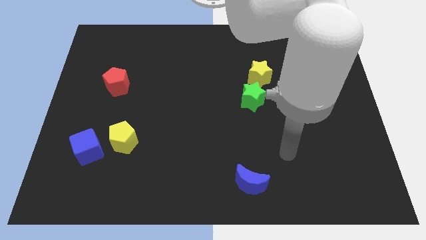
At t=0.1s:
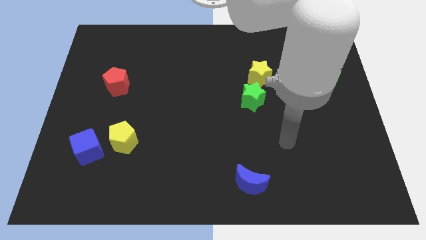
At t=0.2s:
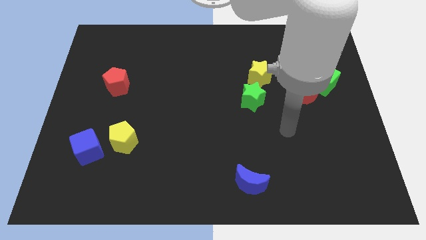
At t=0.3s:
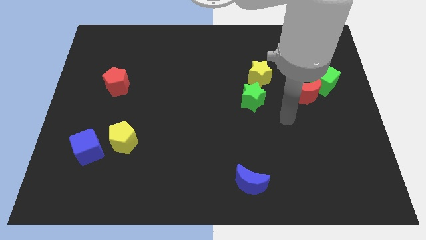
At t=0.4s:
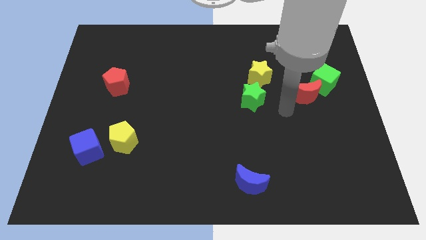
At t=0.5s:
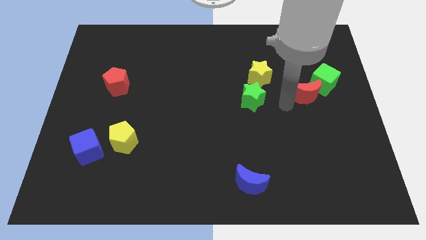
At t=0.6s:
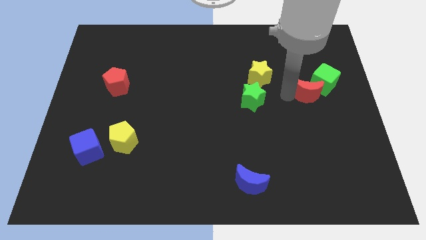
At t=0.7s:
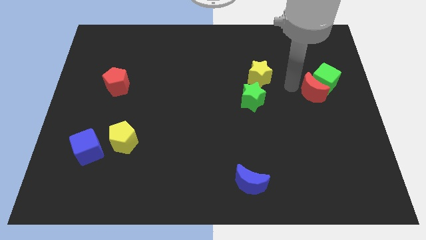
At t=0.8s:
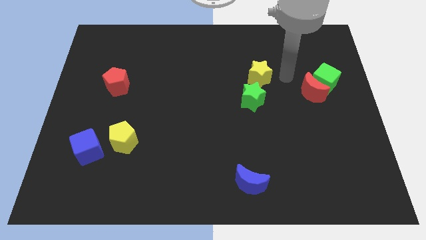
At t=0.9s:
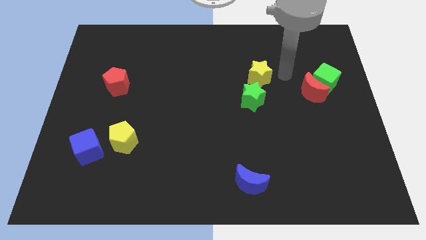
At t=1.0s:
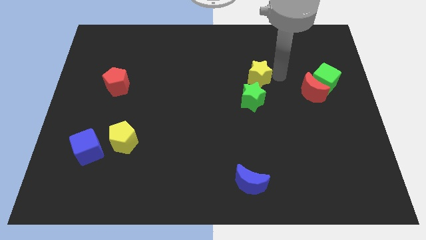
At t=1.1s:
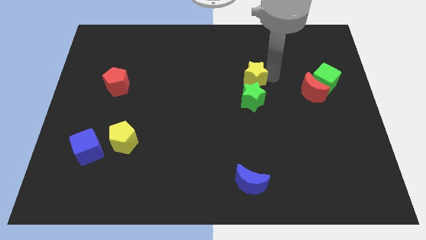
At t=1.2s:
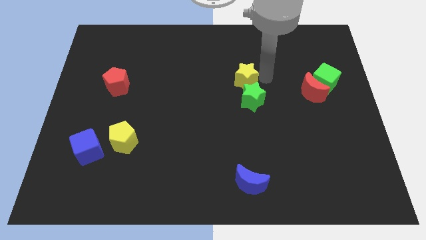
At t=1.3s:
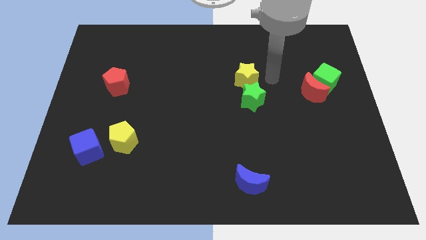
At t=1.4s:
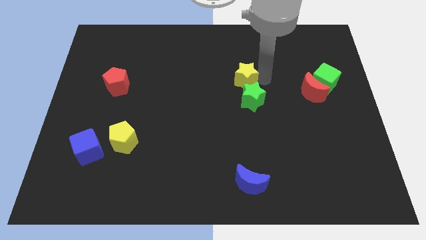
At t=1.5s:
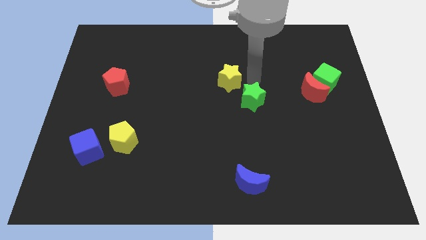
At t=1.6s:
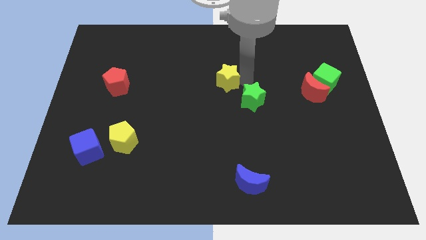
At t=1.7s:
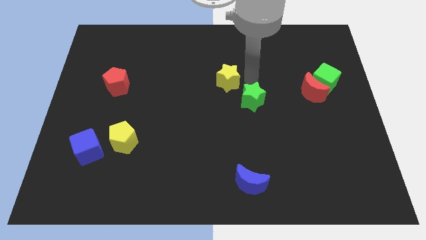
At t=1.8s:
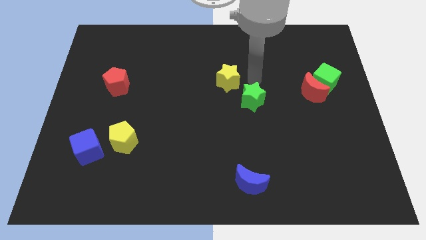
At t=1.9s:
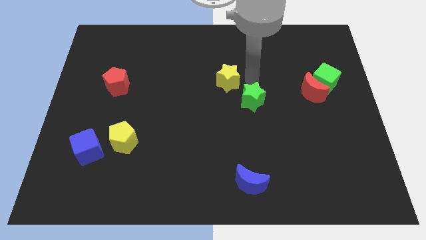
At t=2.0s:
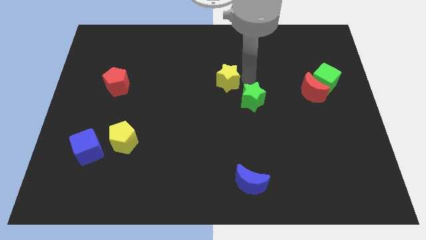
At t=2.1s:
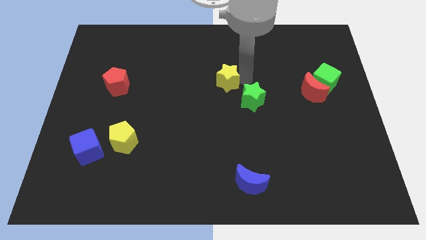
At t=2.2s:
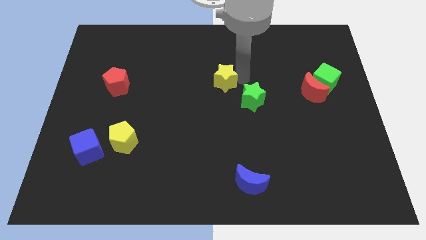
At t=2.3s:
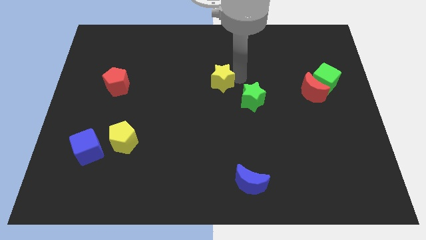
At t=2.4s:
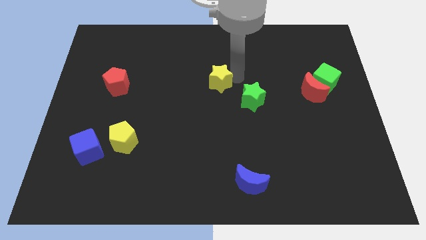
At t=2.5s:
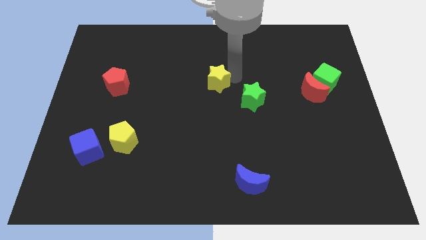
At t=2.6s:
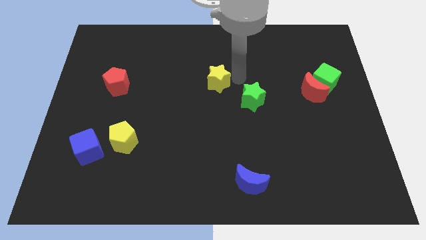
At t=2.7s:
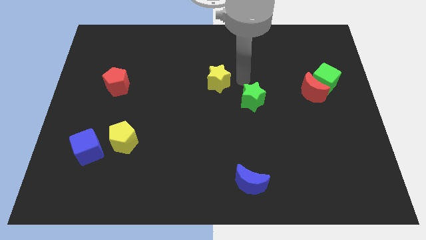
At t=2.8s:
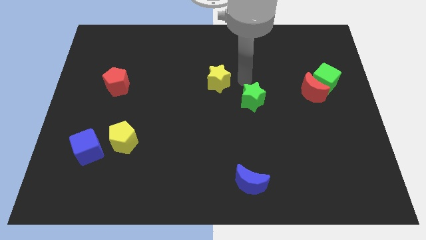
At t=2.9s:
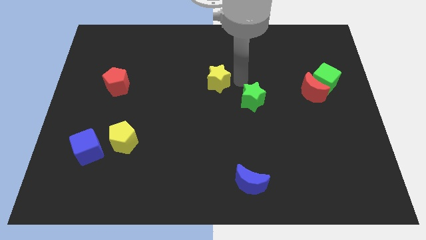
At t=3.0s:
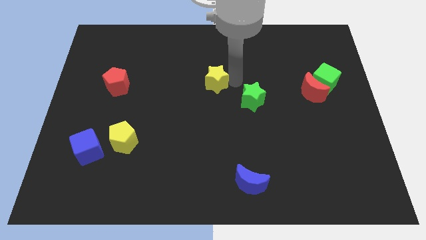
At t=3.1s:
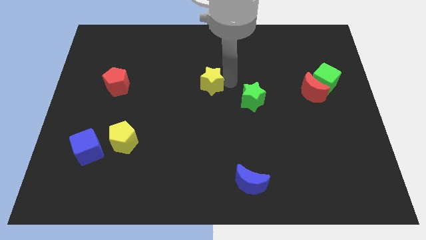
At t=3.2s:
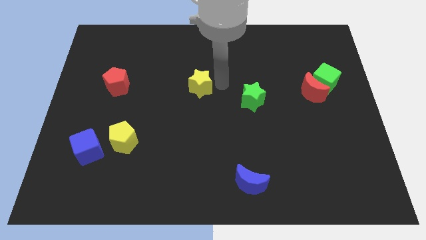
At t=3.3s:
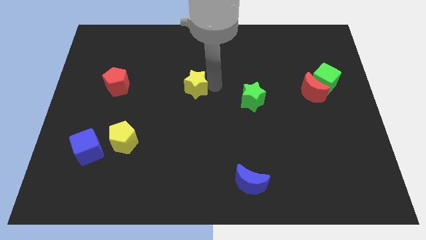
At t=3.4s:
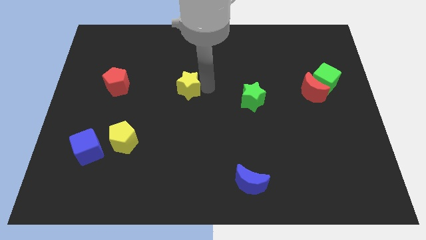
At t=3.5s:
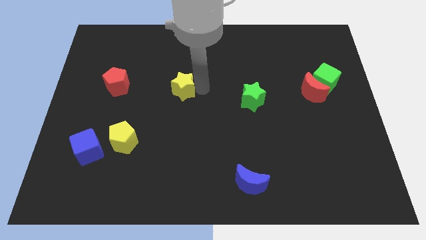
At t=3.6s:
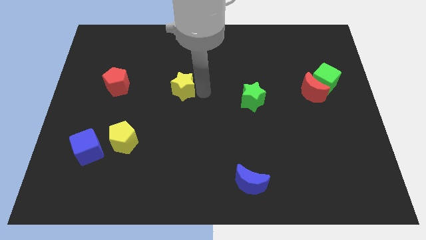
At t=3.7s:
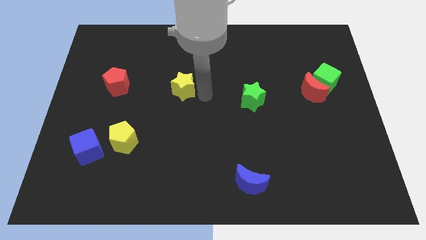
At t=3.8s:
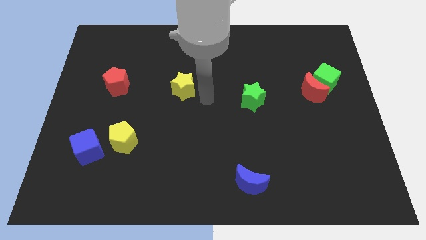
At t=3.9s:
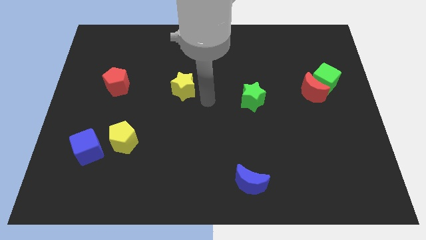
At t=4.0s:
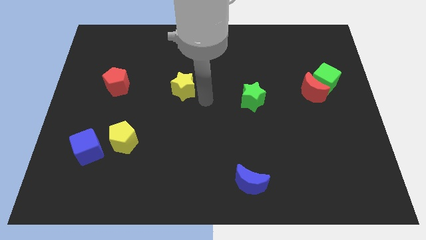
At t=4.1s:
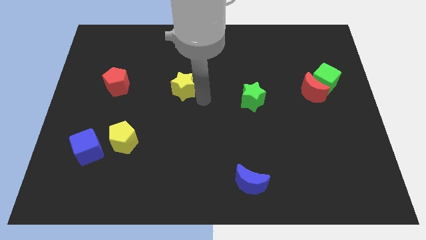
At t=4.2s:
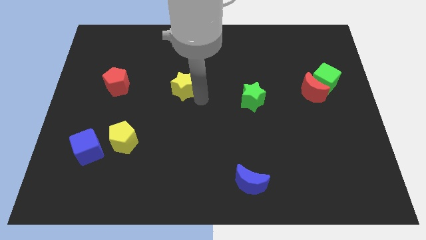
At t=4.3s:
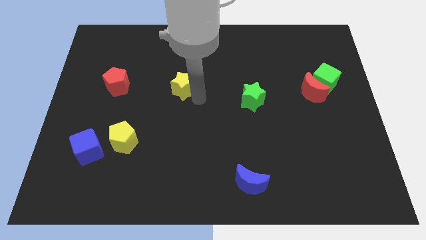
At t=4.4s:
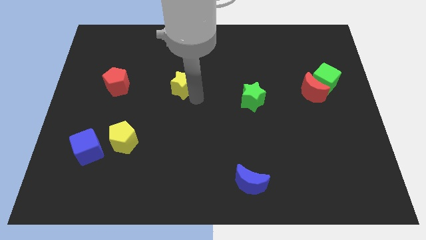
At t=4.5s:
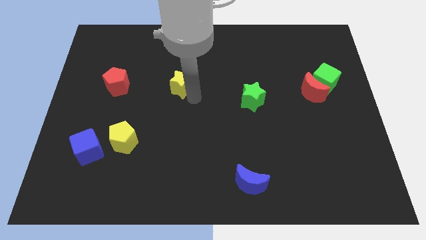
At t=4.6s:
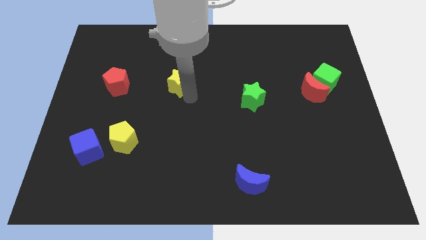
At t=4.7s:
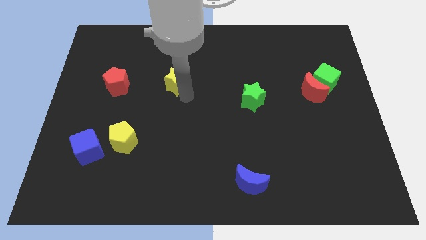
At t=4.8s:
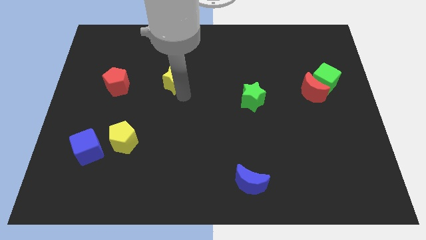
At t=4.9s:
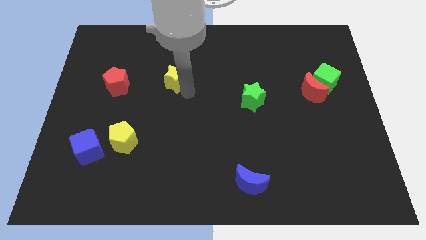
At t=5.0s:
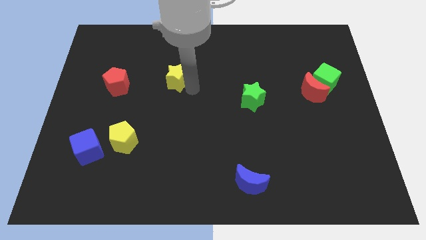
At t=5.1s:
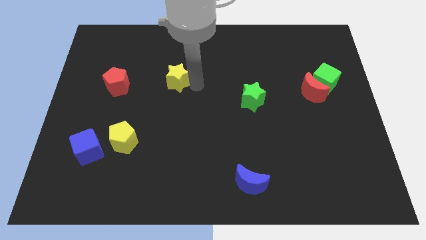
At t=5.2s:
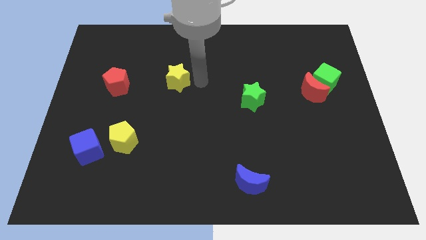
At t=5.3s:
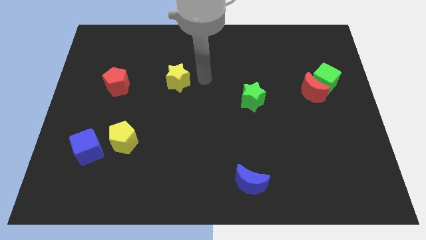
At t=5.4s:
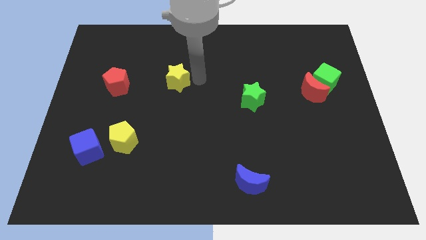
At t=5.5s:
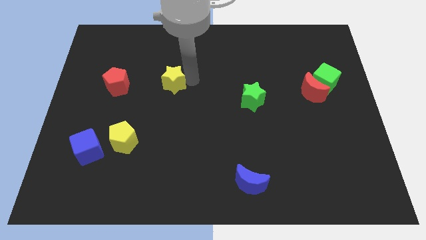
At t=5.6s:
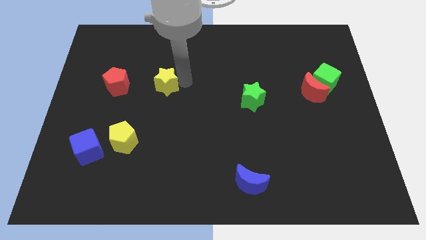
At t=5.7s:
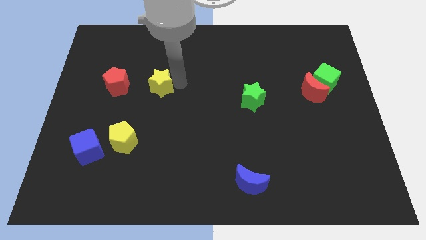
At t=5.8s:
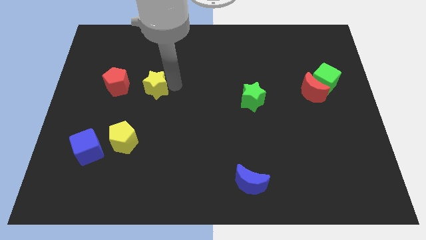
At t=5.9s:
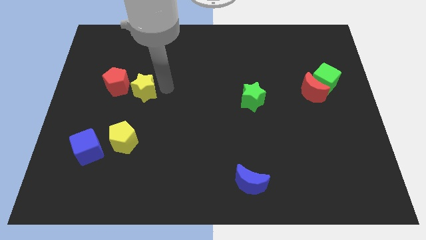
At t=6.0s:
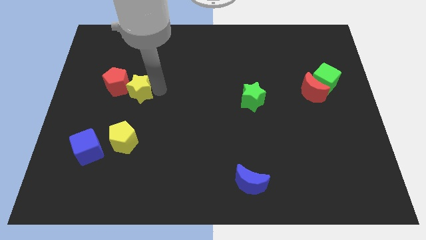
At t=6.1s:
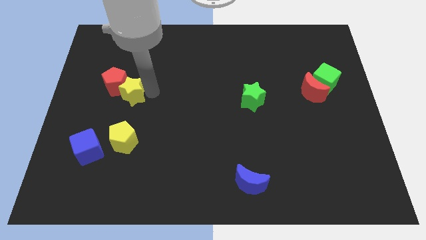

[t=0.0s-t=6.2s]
slide the yellow star next to the red pentagon
